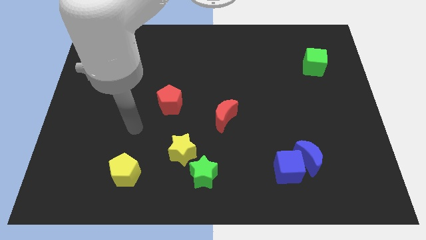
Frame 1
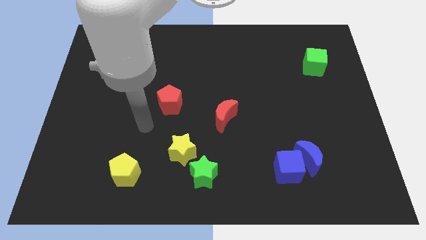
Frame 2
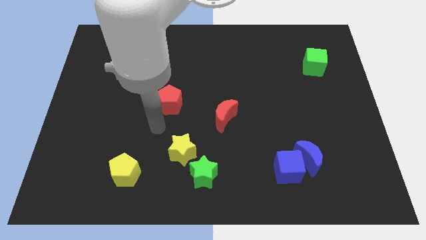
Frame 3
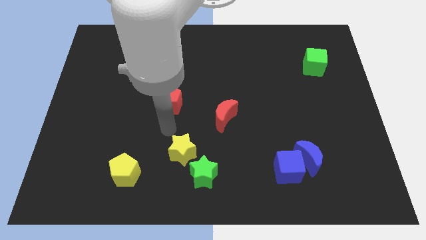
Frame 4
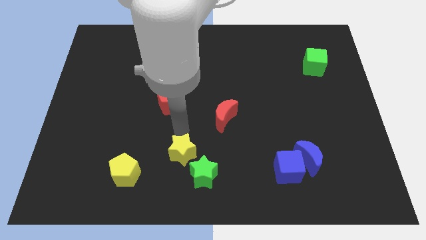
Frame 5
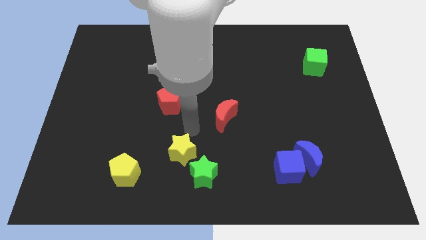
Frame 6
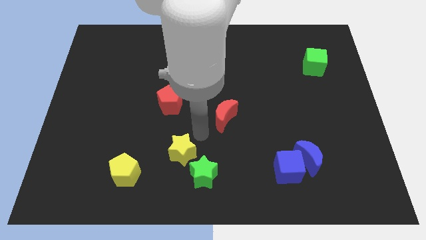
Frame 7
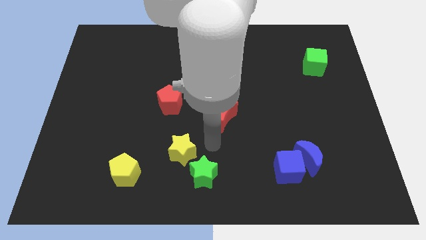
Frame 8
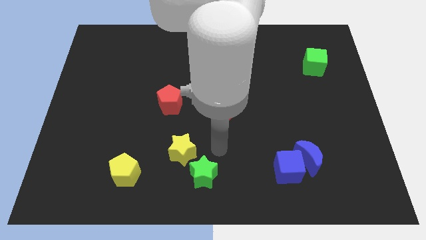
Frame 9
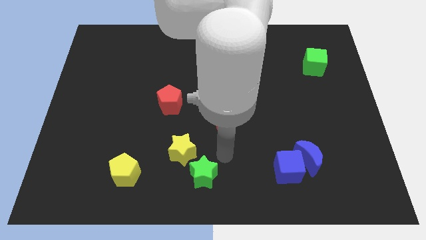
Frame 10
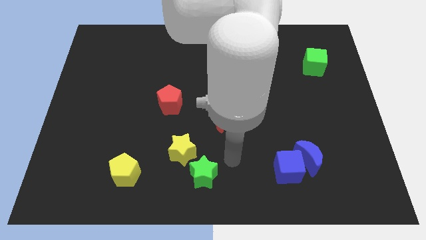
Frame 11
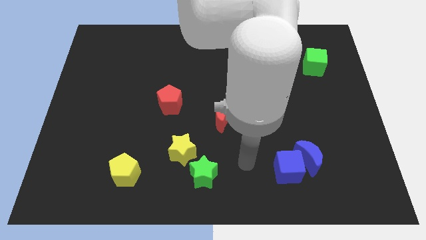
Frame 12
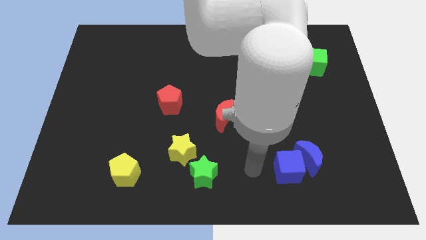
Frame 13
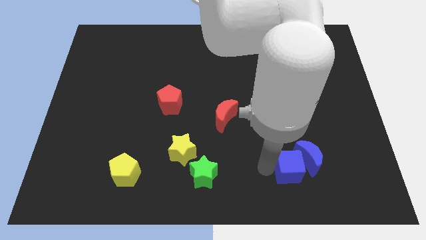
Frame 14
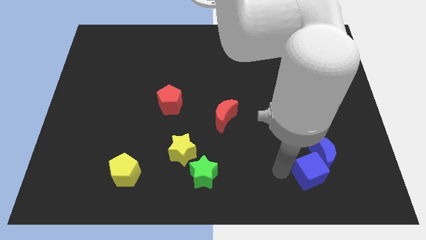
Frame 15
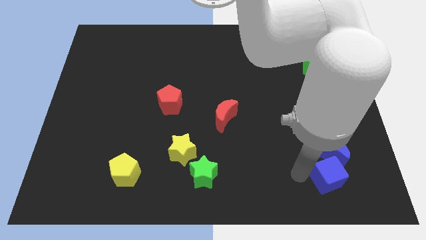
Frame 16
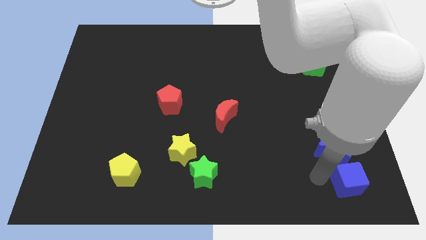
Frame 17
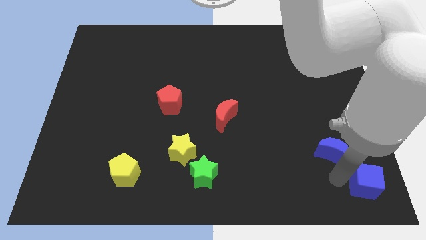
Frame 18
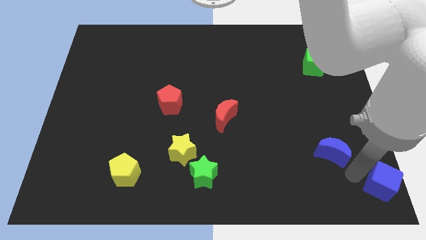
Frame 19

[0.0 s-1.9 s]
separate the blue moon from the blue cube

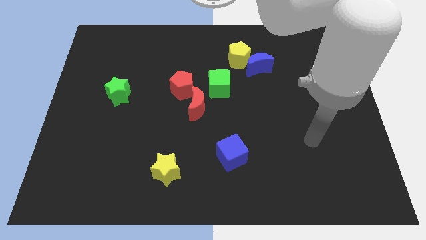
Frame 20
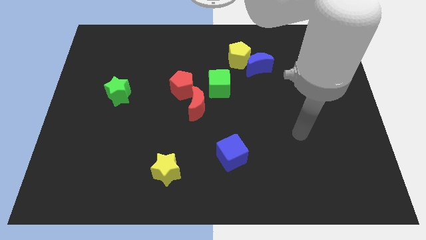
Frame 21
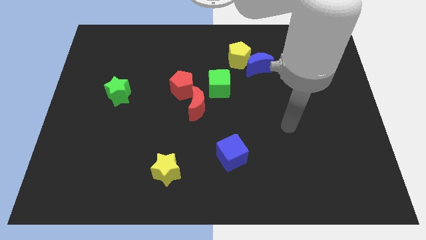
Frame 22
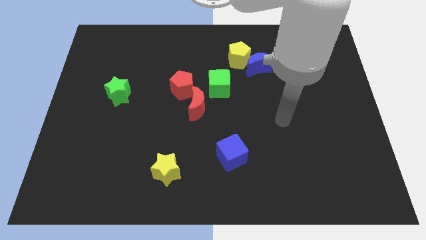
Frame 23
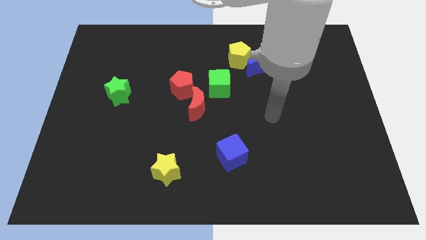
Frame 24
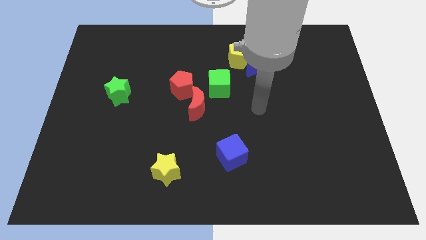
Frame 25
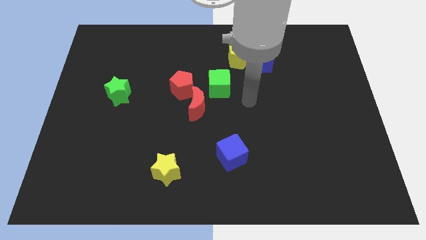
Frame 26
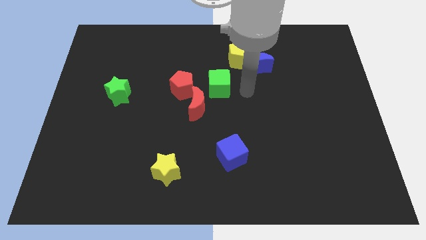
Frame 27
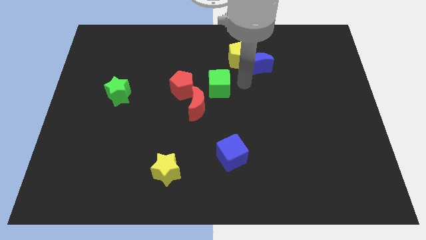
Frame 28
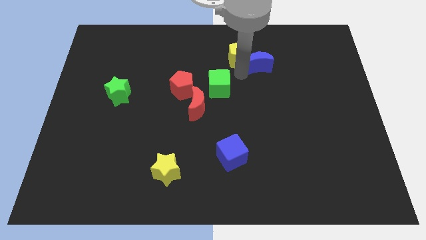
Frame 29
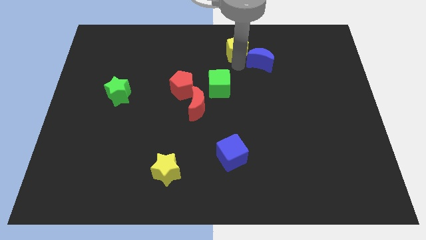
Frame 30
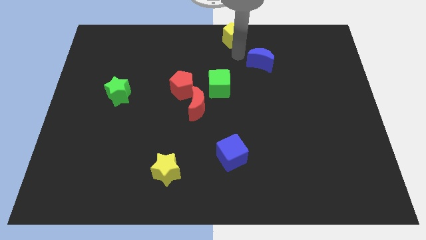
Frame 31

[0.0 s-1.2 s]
pull the blue moon apart from the yellow pentagon

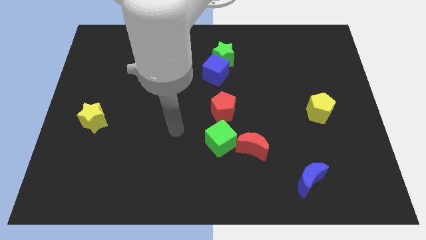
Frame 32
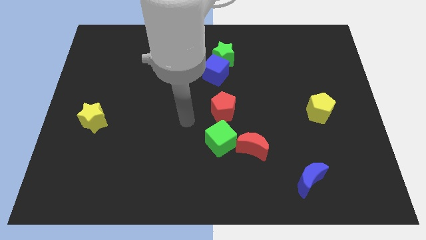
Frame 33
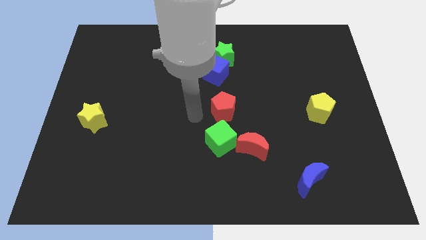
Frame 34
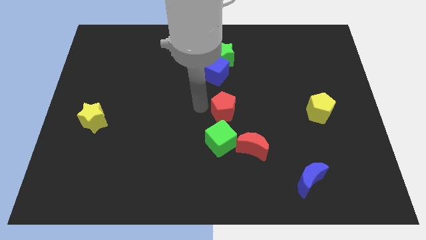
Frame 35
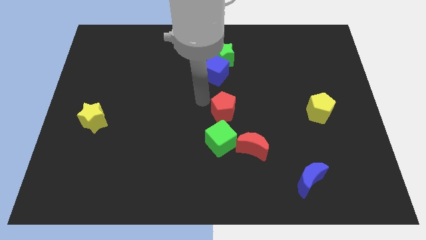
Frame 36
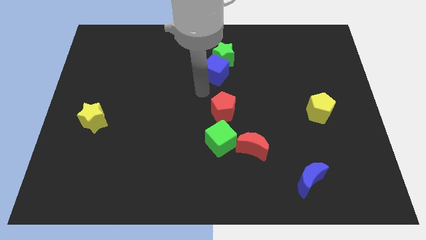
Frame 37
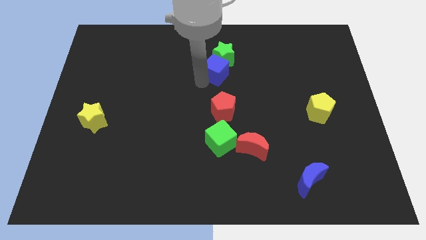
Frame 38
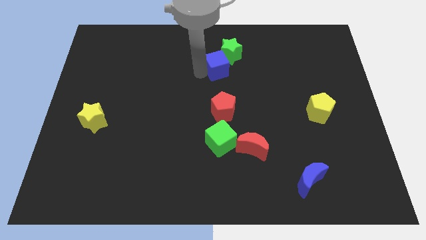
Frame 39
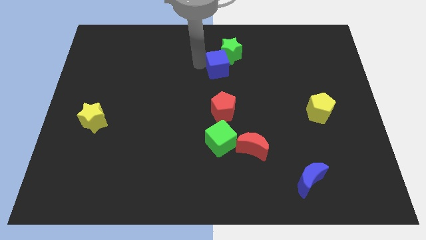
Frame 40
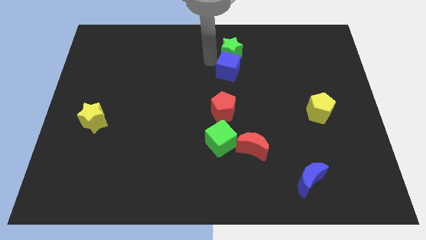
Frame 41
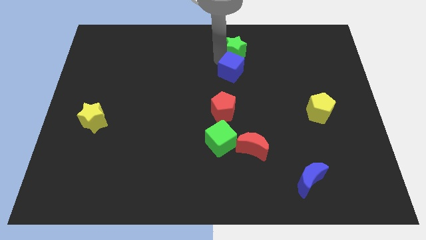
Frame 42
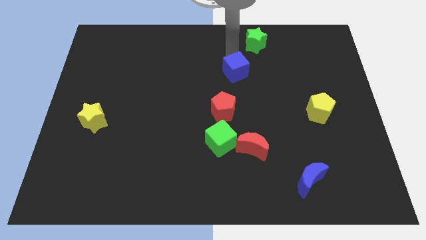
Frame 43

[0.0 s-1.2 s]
pull the blue cube apart from the green star

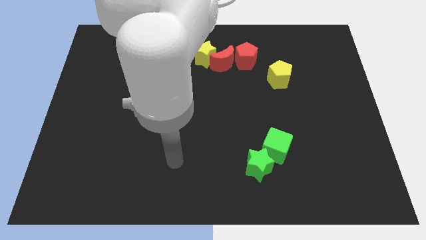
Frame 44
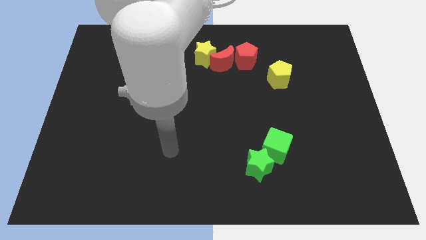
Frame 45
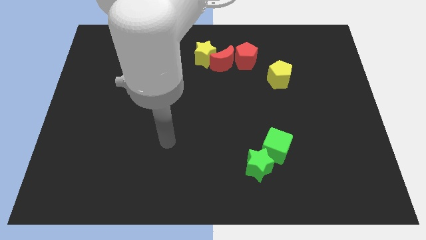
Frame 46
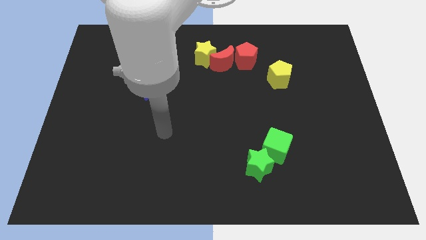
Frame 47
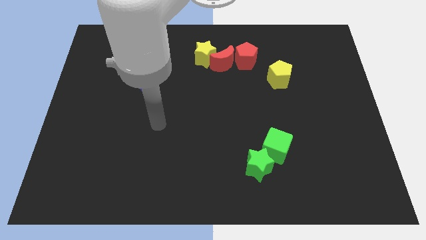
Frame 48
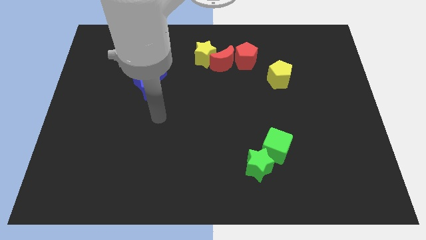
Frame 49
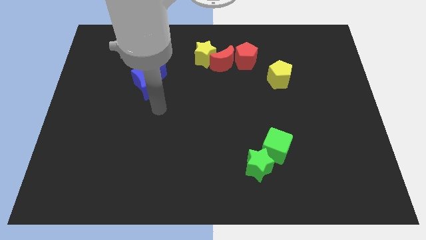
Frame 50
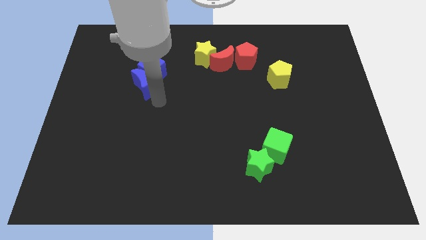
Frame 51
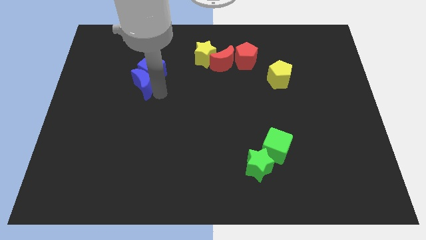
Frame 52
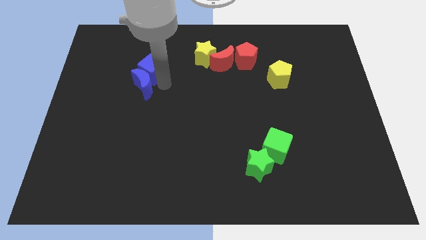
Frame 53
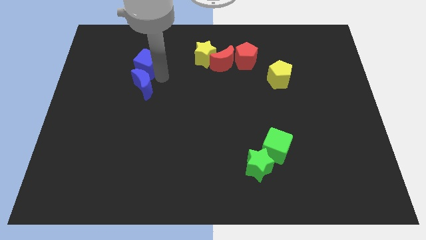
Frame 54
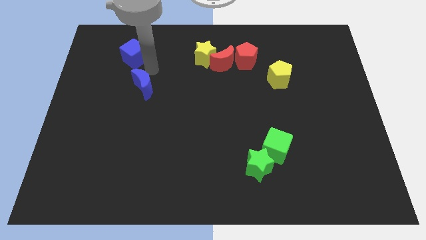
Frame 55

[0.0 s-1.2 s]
move the blue moon away from the blue cube

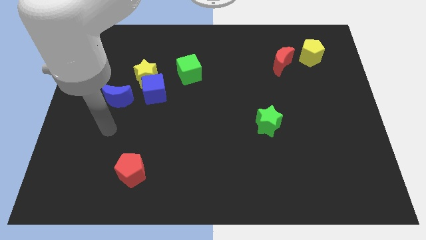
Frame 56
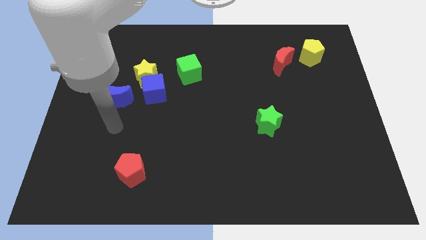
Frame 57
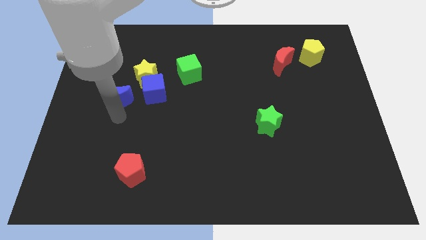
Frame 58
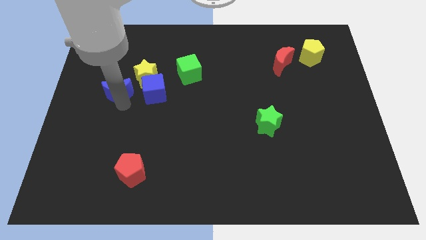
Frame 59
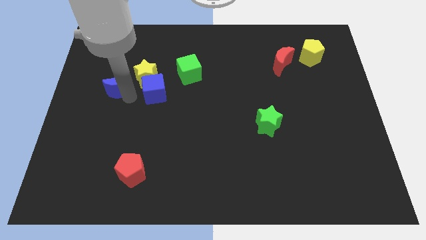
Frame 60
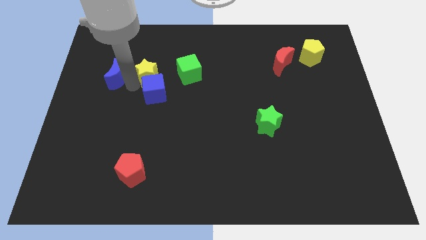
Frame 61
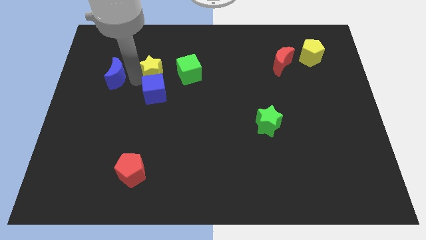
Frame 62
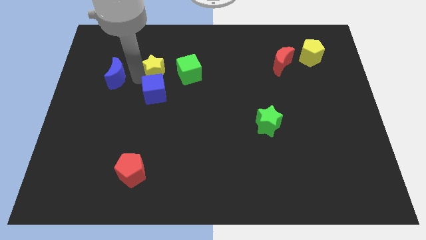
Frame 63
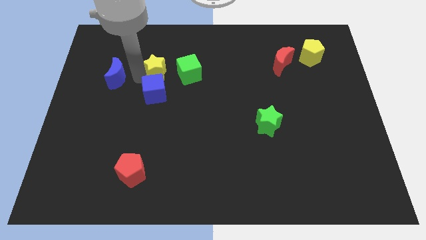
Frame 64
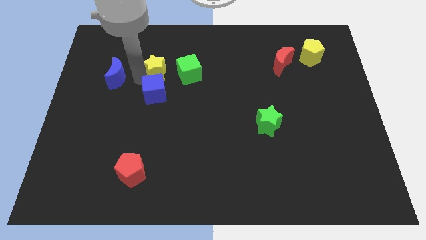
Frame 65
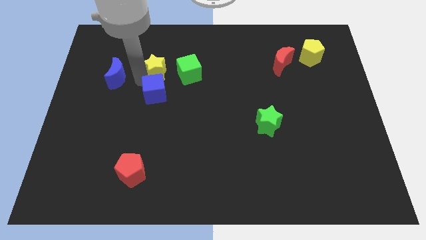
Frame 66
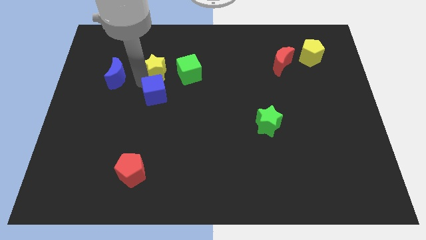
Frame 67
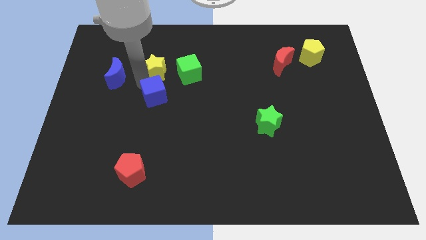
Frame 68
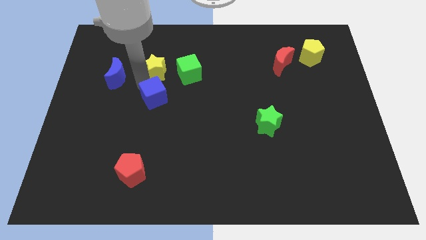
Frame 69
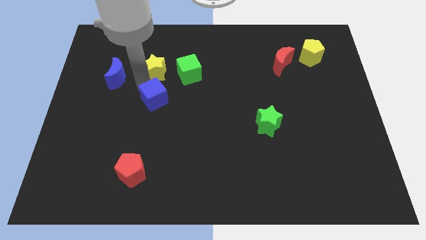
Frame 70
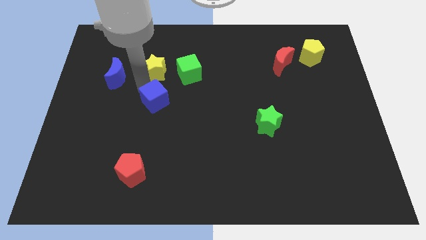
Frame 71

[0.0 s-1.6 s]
move the blue cube away from the yellow star and blue moon

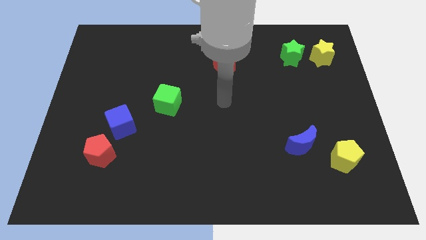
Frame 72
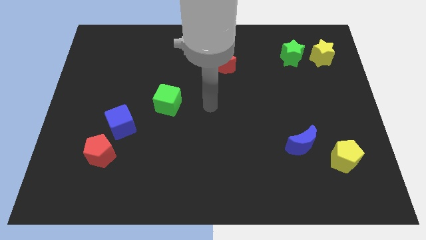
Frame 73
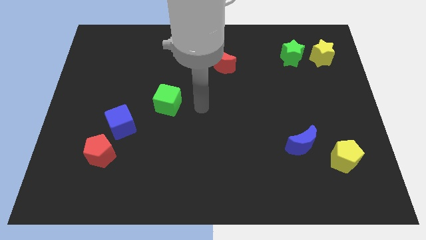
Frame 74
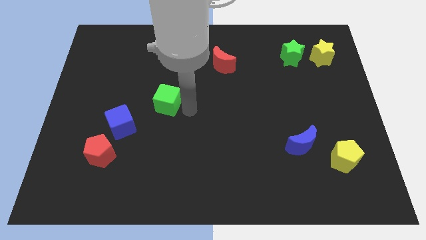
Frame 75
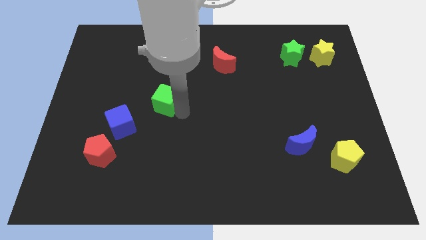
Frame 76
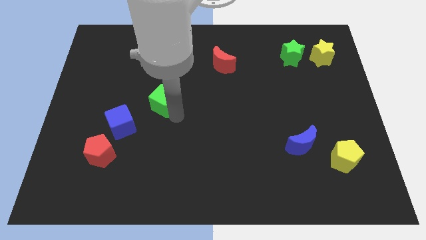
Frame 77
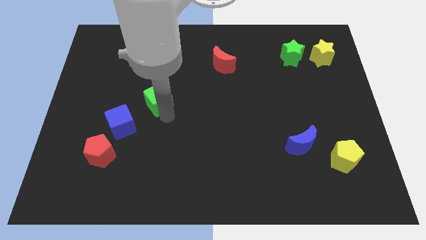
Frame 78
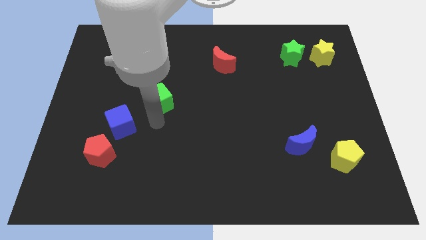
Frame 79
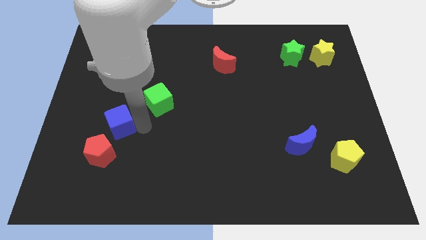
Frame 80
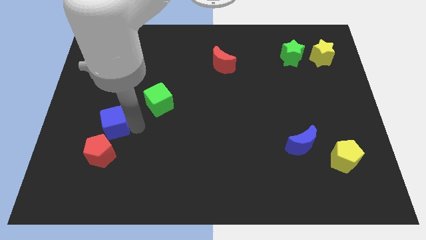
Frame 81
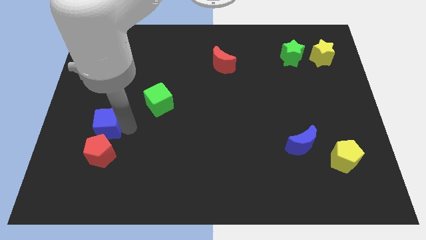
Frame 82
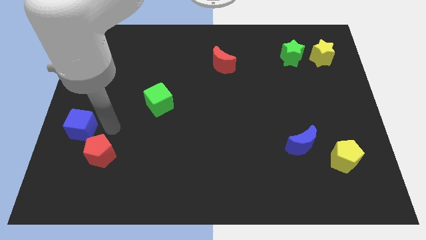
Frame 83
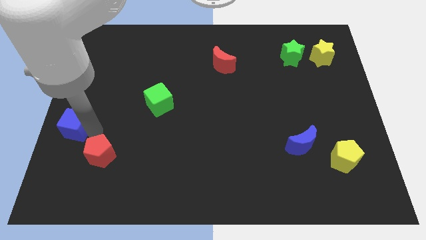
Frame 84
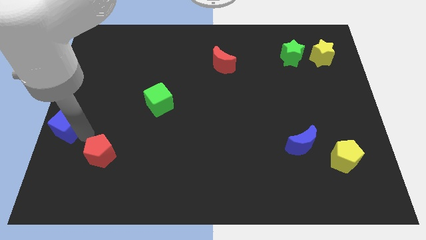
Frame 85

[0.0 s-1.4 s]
separate the red pentagon from the blue cube

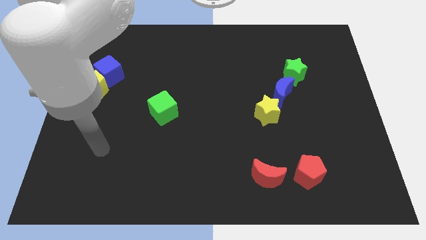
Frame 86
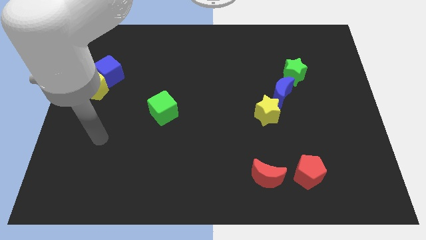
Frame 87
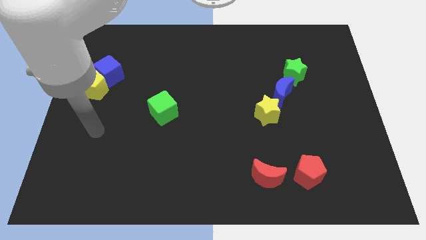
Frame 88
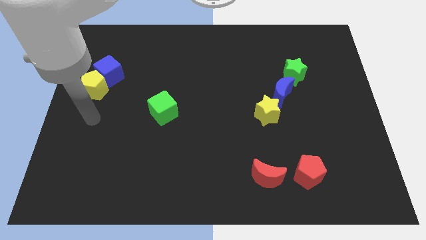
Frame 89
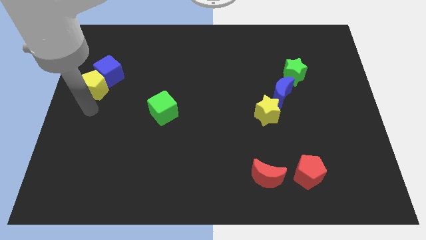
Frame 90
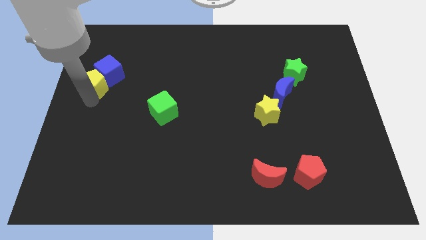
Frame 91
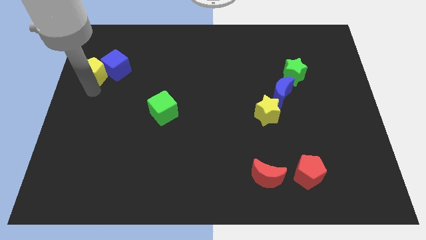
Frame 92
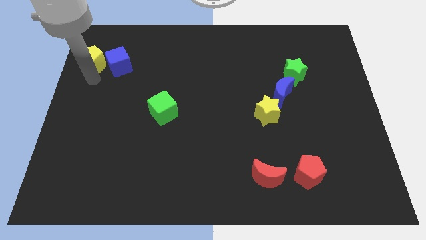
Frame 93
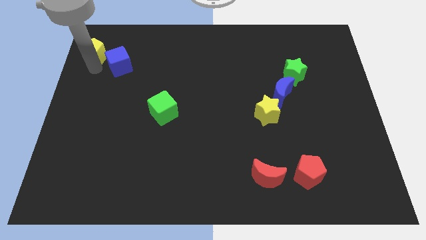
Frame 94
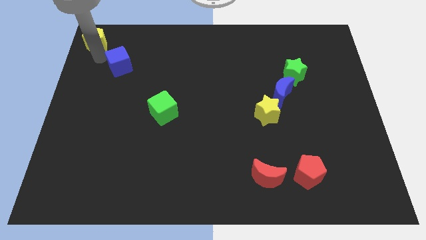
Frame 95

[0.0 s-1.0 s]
separate the blue cube from the yellow pentagon
